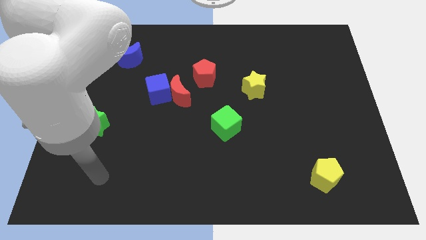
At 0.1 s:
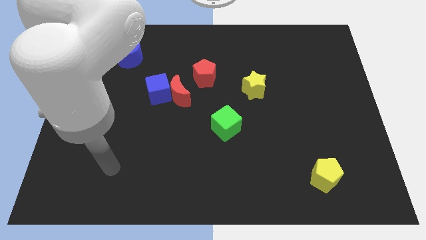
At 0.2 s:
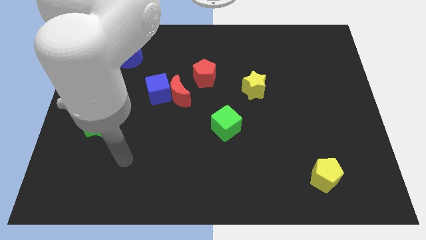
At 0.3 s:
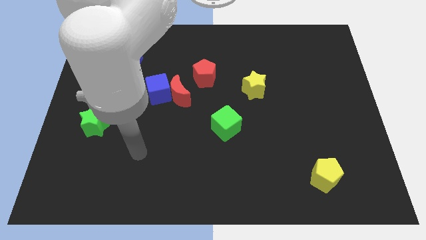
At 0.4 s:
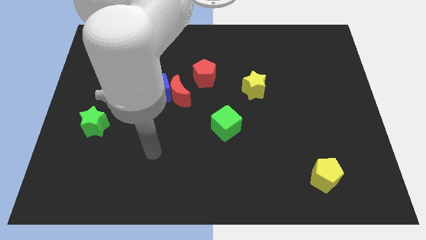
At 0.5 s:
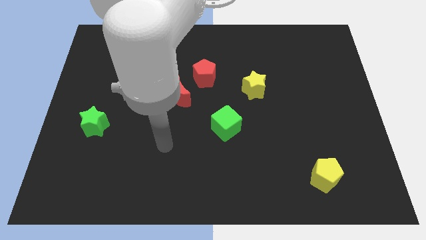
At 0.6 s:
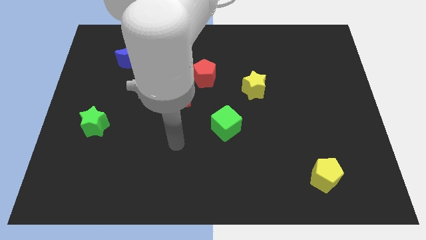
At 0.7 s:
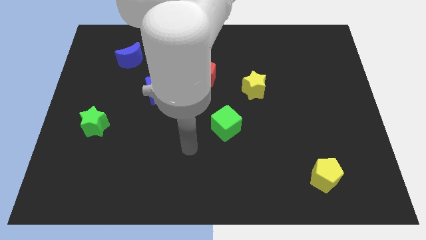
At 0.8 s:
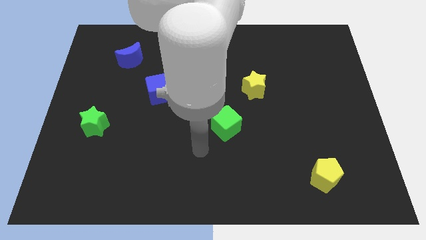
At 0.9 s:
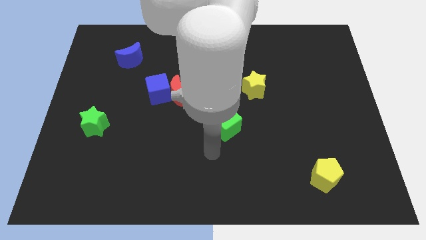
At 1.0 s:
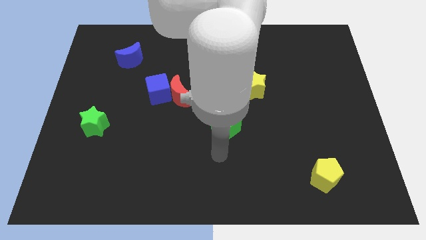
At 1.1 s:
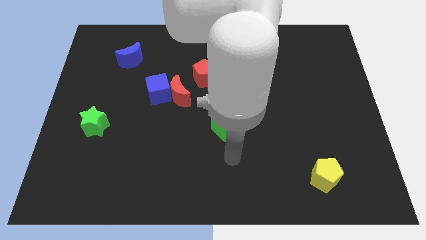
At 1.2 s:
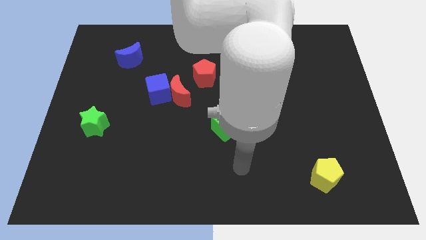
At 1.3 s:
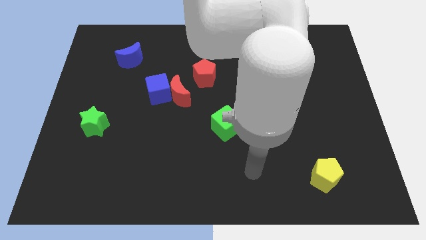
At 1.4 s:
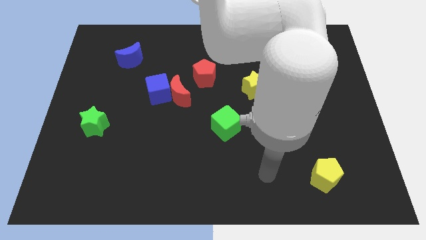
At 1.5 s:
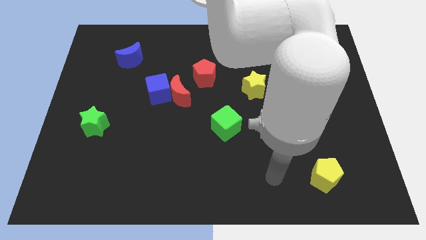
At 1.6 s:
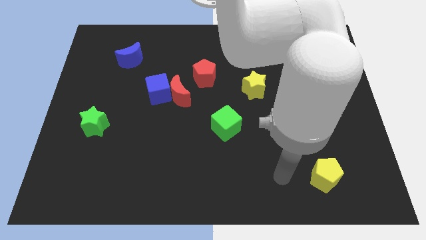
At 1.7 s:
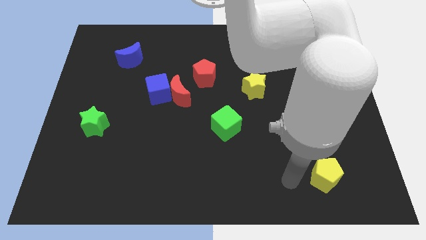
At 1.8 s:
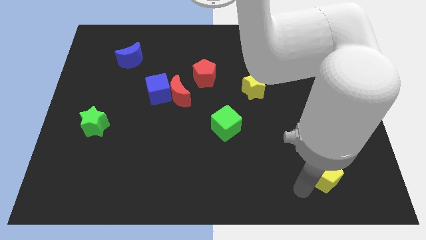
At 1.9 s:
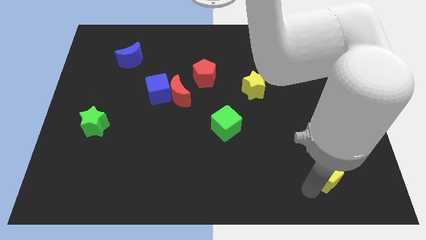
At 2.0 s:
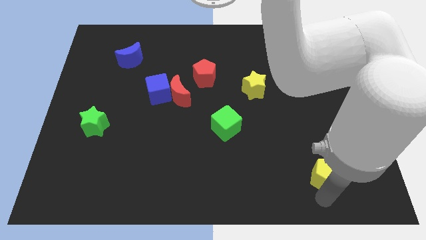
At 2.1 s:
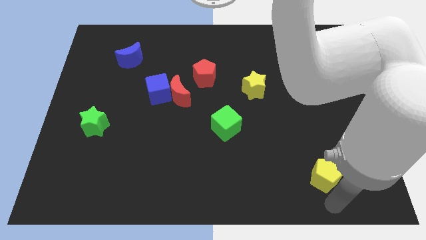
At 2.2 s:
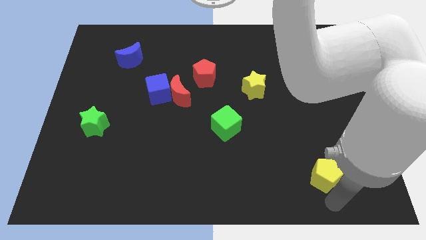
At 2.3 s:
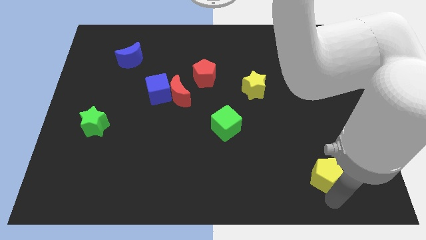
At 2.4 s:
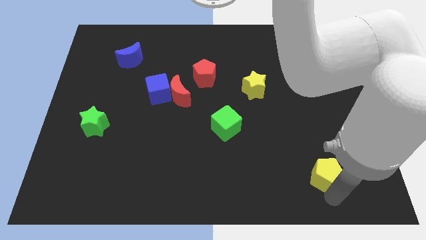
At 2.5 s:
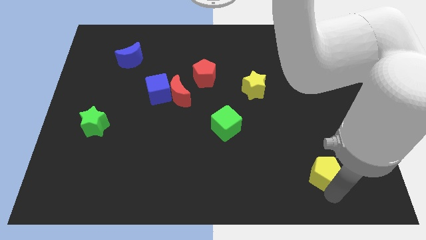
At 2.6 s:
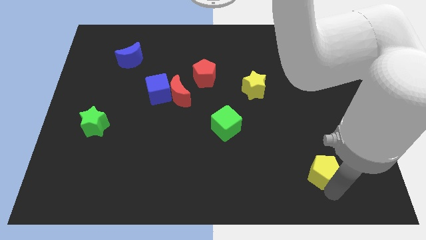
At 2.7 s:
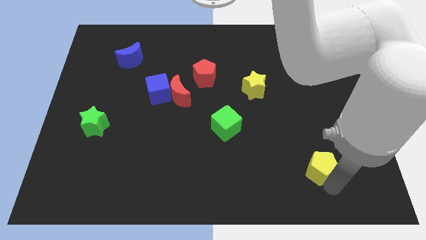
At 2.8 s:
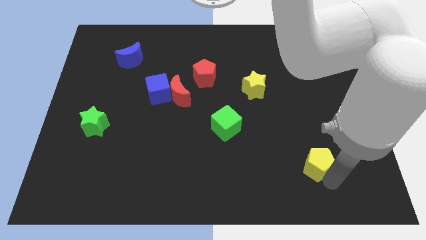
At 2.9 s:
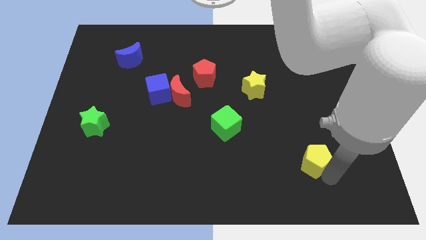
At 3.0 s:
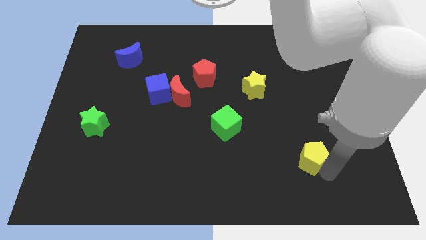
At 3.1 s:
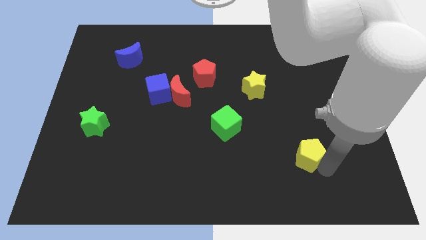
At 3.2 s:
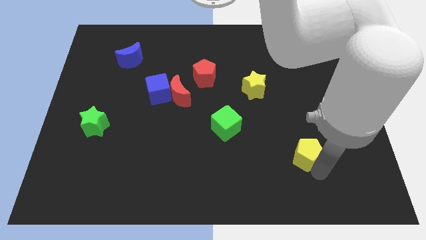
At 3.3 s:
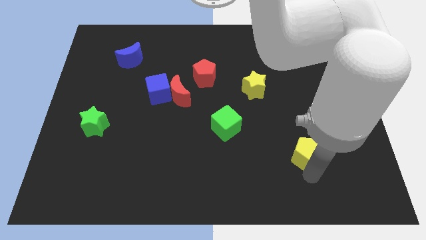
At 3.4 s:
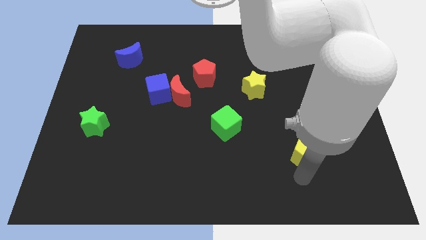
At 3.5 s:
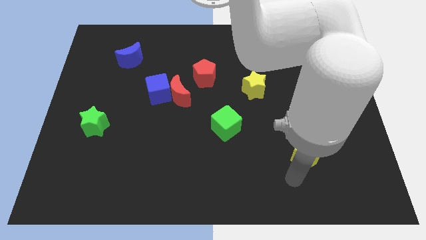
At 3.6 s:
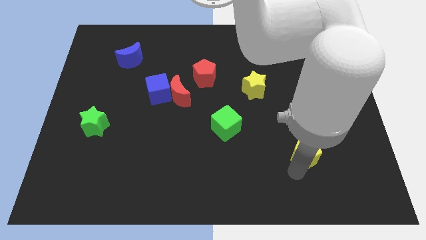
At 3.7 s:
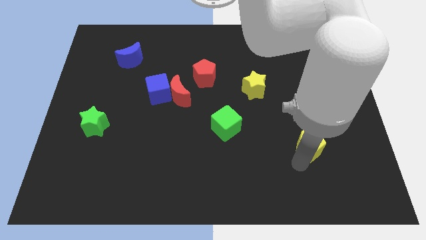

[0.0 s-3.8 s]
slide the yellow pentagon somewhat upwards

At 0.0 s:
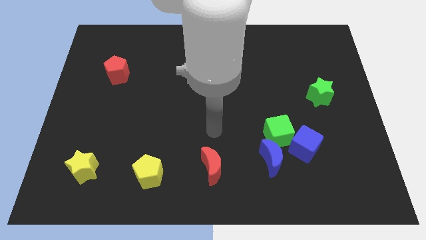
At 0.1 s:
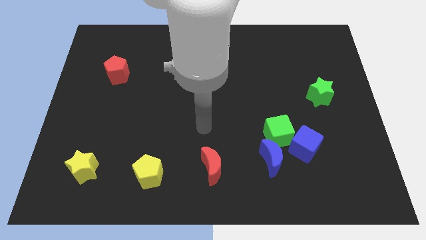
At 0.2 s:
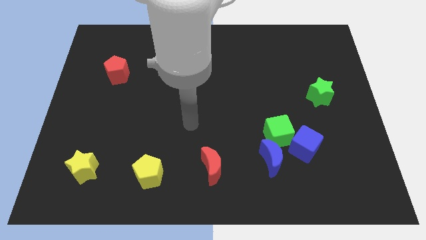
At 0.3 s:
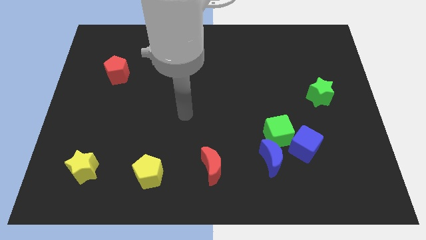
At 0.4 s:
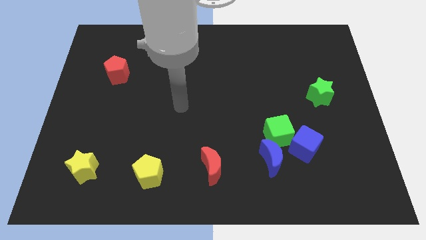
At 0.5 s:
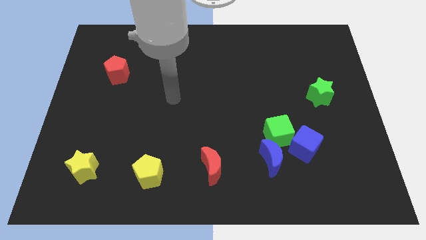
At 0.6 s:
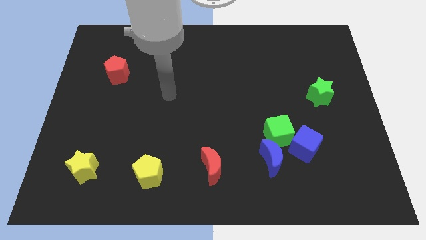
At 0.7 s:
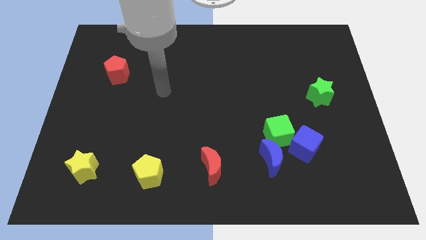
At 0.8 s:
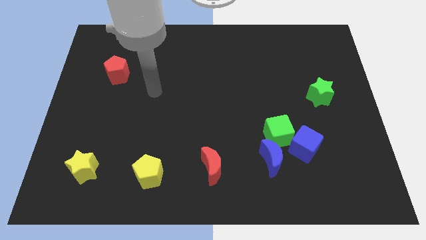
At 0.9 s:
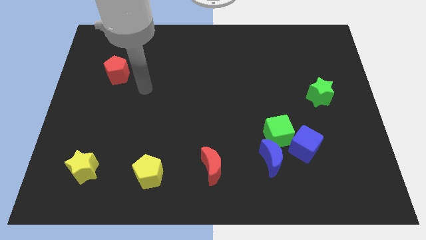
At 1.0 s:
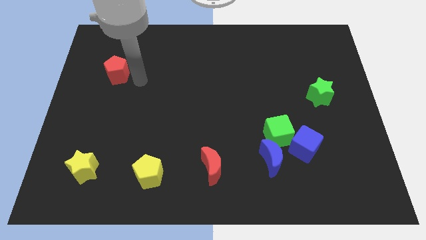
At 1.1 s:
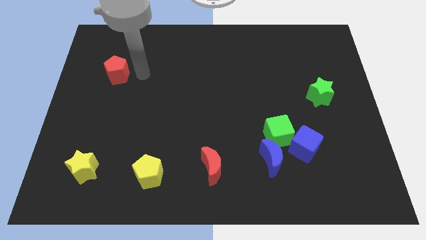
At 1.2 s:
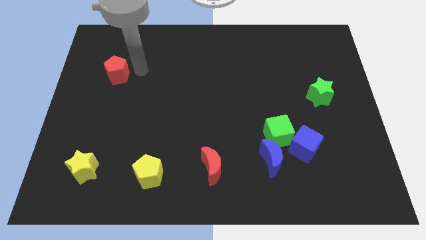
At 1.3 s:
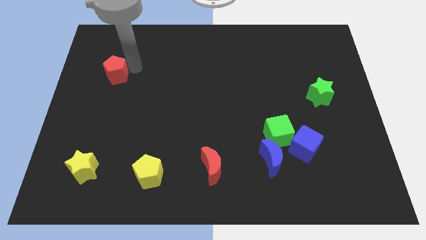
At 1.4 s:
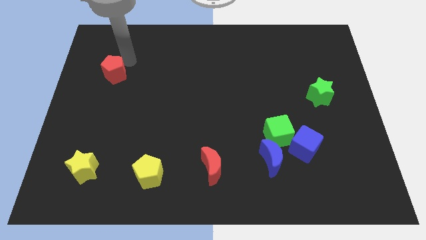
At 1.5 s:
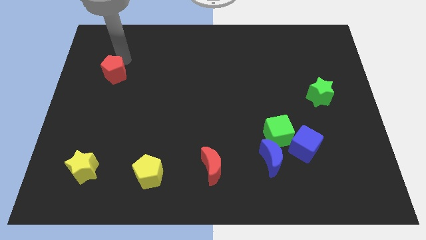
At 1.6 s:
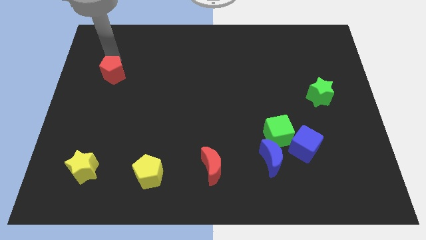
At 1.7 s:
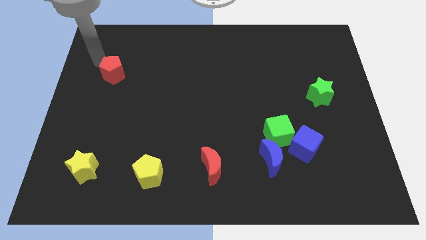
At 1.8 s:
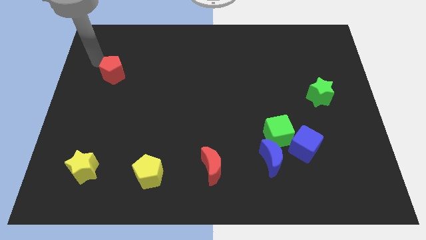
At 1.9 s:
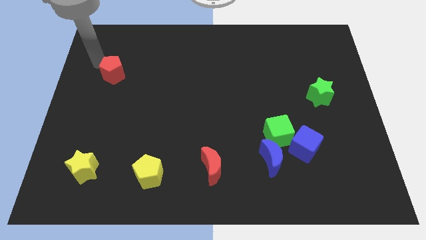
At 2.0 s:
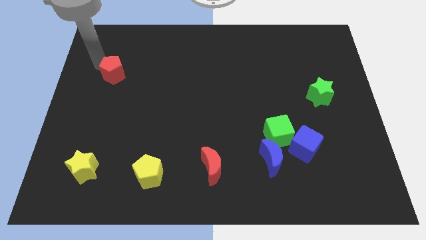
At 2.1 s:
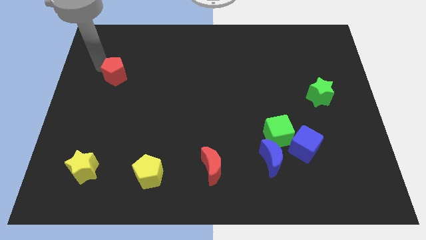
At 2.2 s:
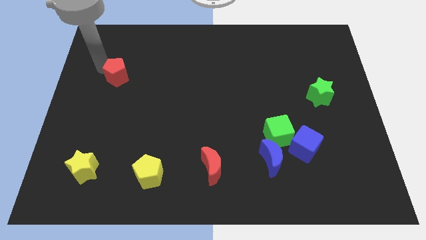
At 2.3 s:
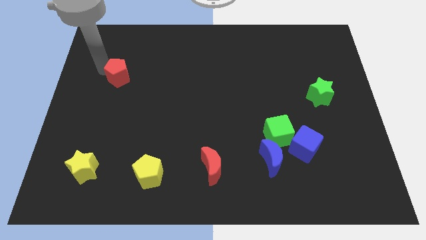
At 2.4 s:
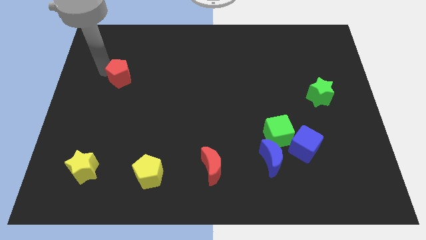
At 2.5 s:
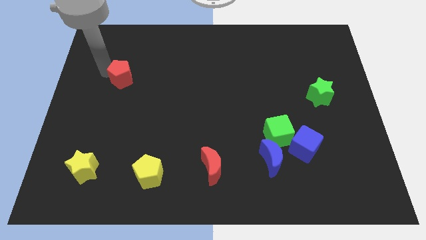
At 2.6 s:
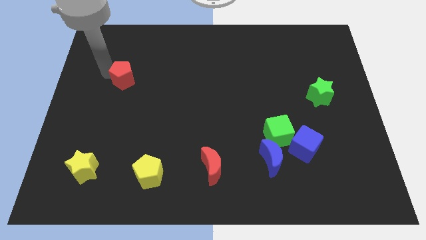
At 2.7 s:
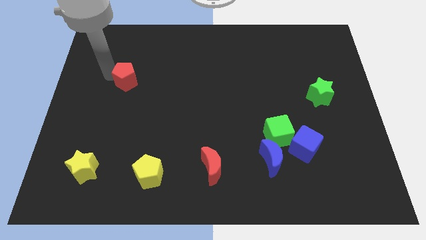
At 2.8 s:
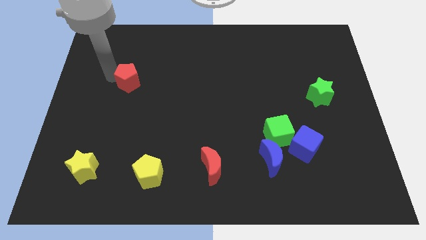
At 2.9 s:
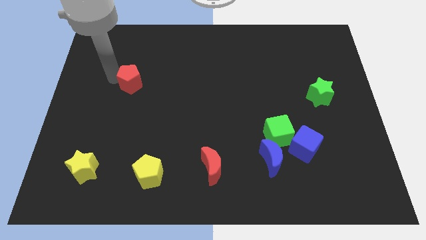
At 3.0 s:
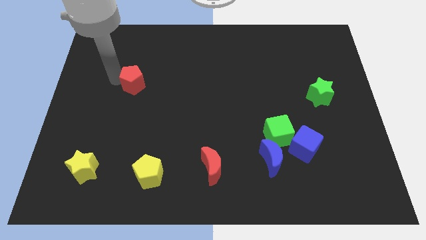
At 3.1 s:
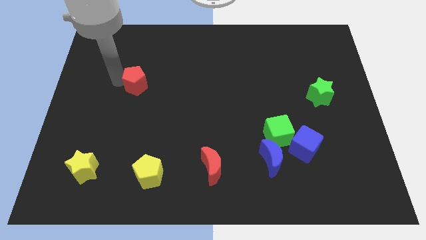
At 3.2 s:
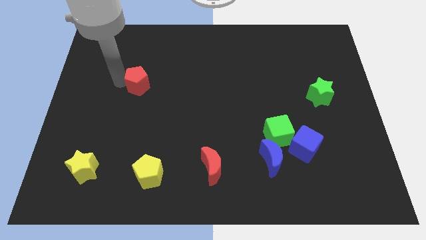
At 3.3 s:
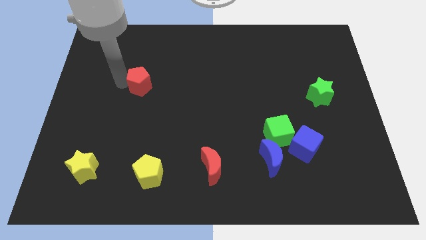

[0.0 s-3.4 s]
slightly move the red pentagon down and right

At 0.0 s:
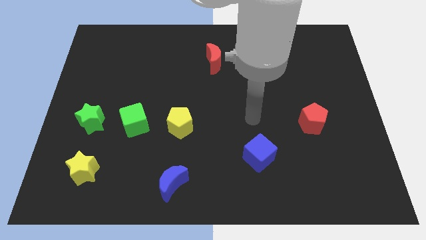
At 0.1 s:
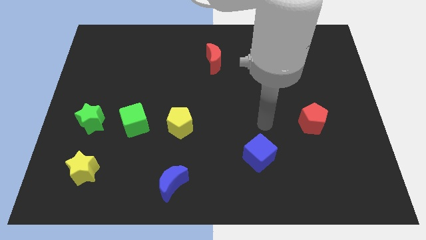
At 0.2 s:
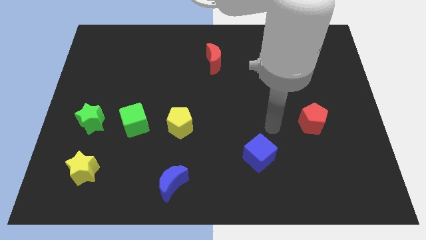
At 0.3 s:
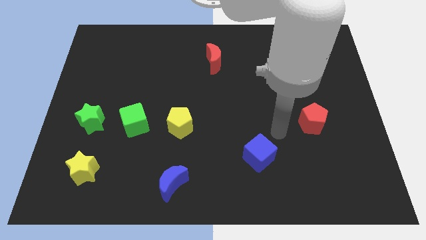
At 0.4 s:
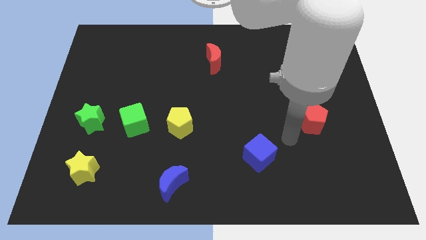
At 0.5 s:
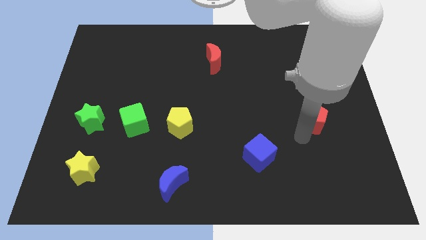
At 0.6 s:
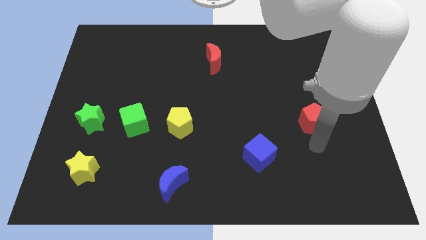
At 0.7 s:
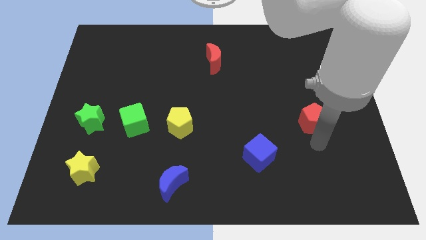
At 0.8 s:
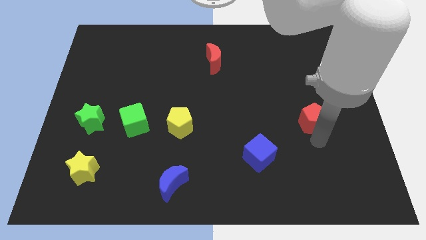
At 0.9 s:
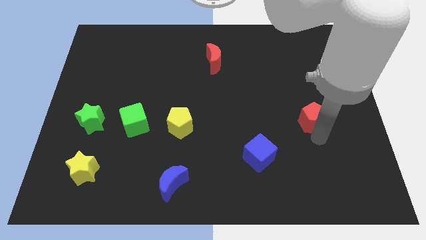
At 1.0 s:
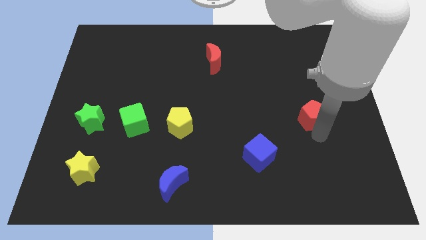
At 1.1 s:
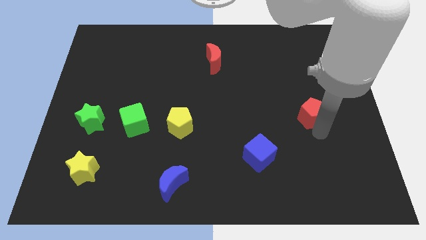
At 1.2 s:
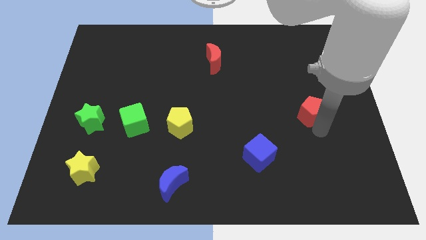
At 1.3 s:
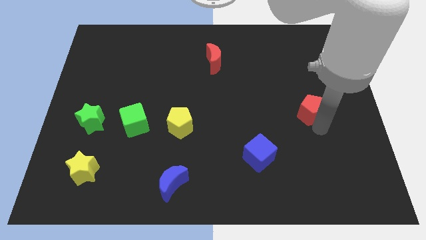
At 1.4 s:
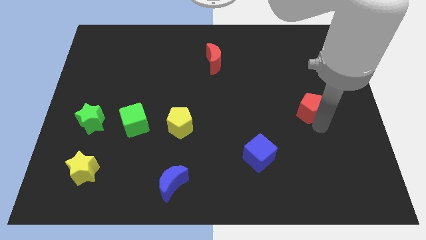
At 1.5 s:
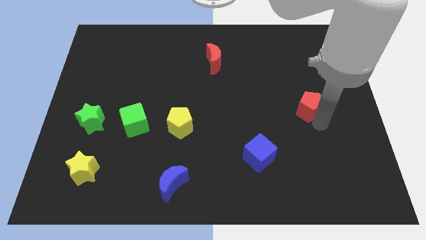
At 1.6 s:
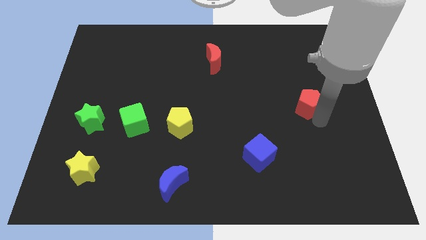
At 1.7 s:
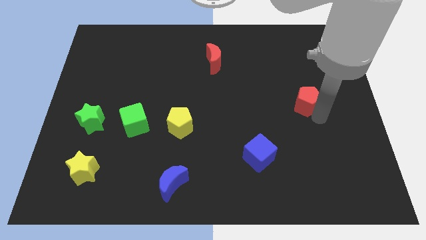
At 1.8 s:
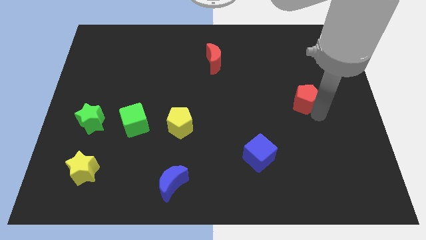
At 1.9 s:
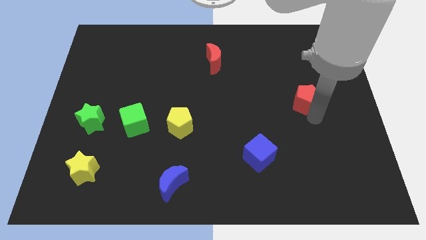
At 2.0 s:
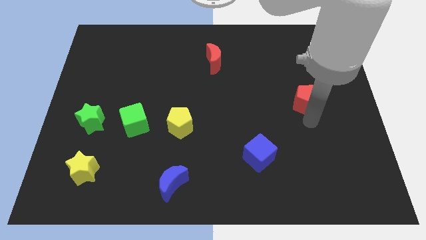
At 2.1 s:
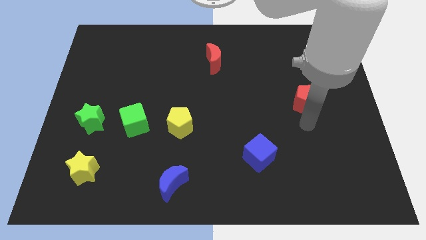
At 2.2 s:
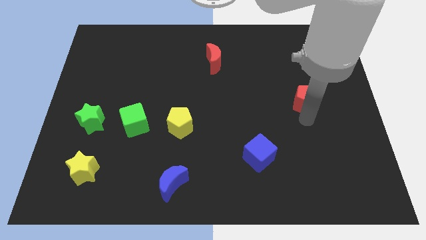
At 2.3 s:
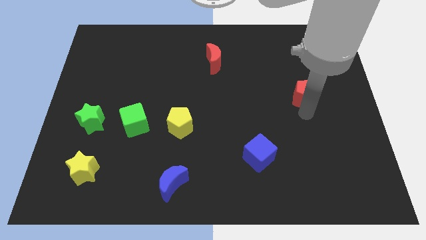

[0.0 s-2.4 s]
move the red pentagon a little bit up
